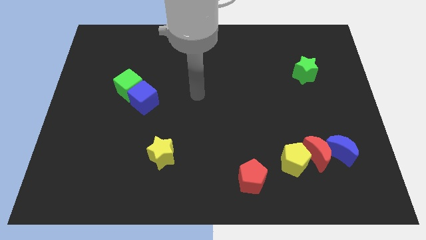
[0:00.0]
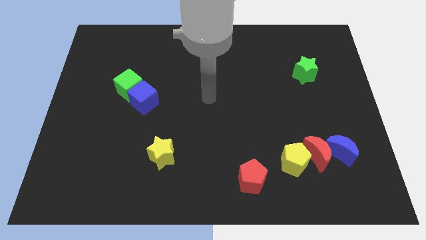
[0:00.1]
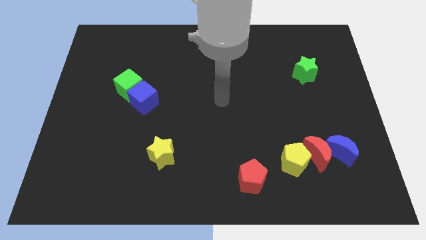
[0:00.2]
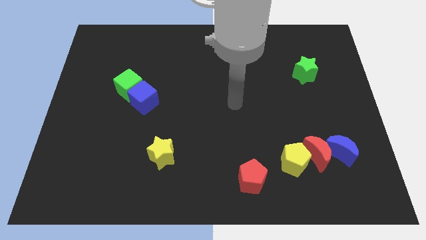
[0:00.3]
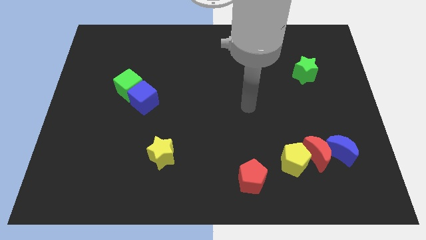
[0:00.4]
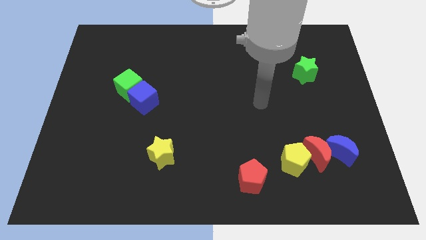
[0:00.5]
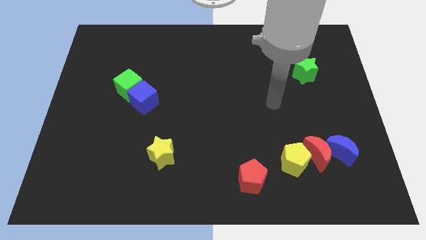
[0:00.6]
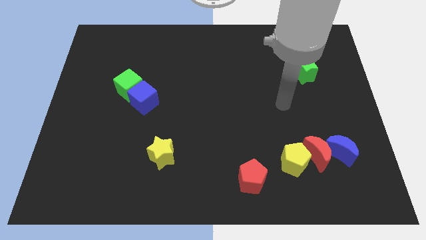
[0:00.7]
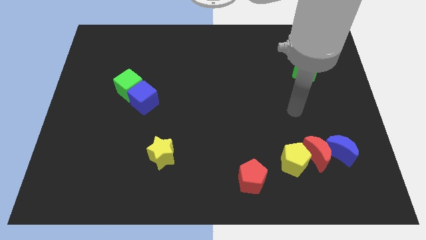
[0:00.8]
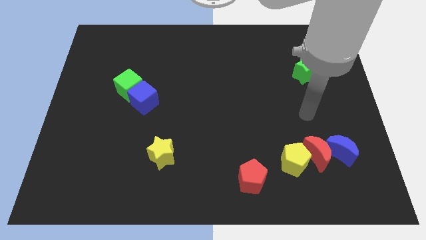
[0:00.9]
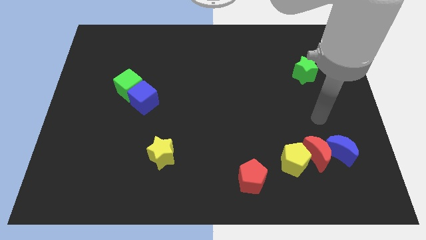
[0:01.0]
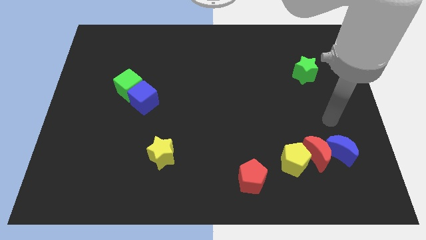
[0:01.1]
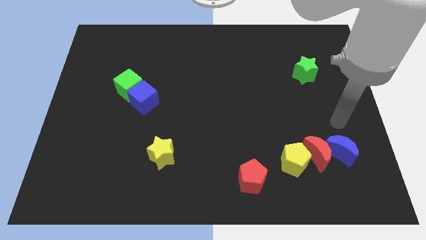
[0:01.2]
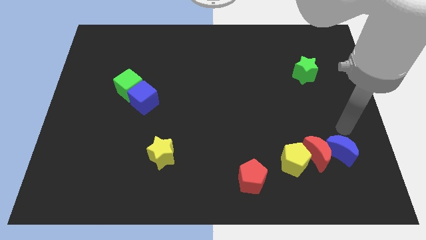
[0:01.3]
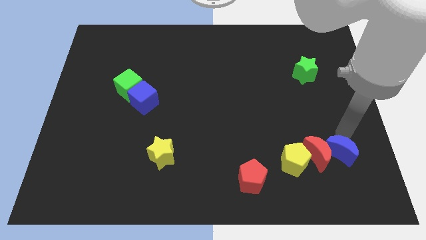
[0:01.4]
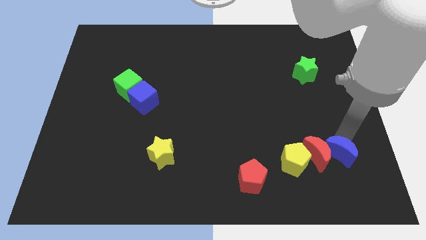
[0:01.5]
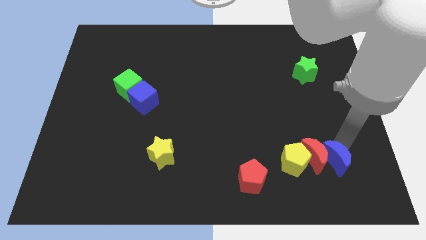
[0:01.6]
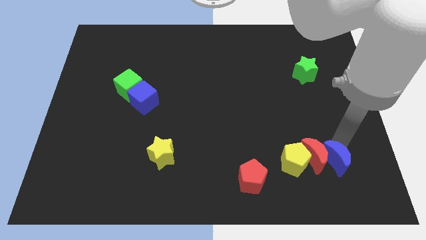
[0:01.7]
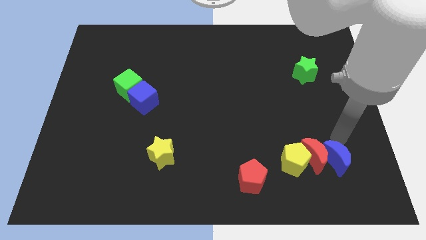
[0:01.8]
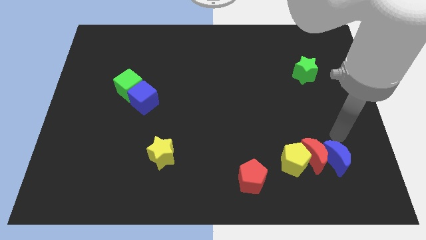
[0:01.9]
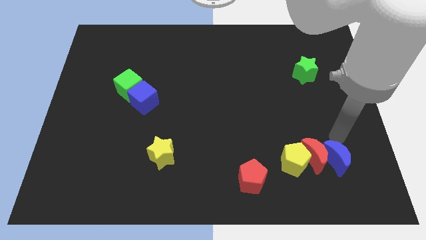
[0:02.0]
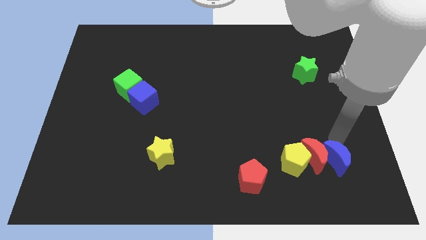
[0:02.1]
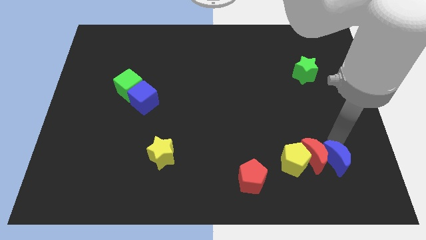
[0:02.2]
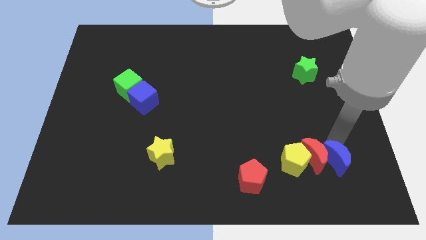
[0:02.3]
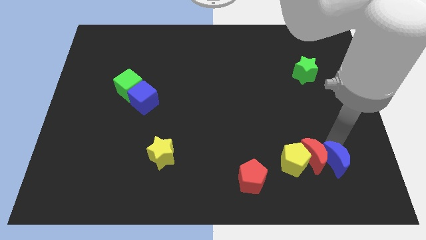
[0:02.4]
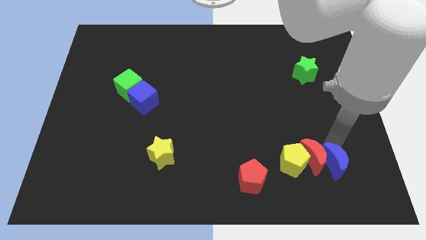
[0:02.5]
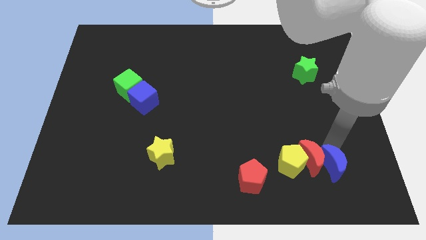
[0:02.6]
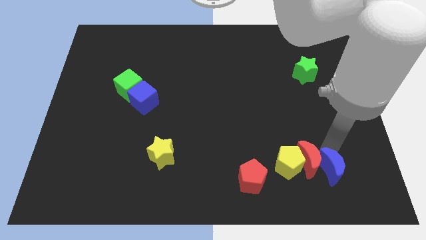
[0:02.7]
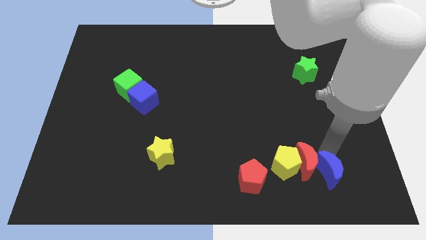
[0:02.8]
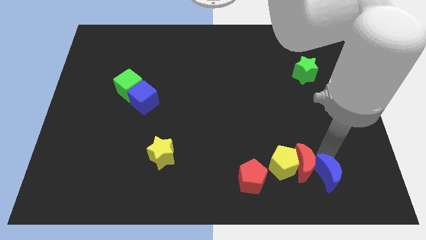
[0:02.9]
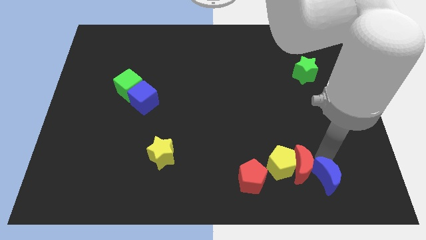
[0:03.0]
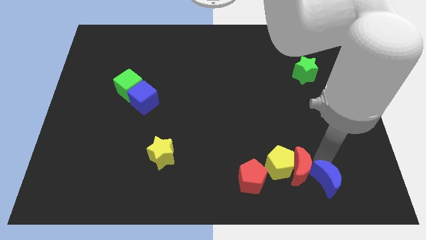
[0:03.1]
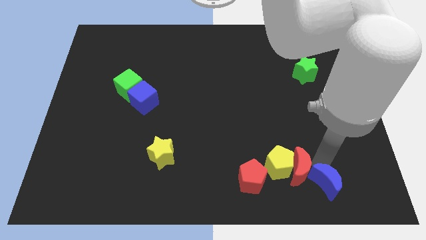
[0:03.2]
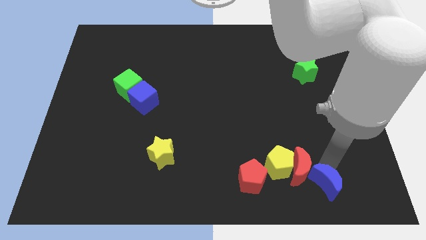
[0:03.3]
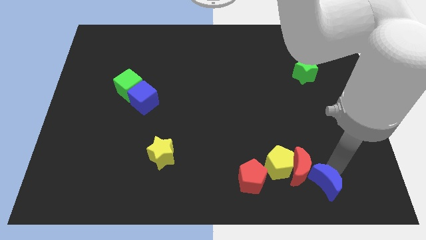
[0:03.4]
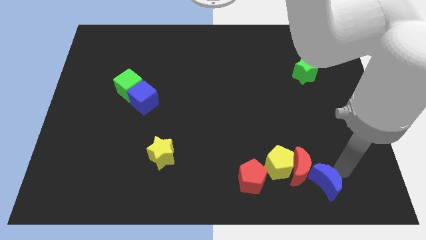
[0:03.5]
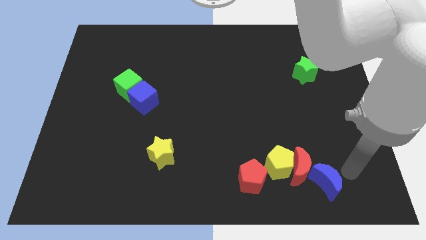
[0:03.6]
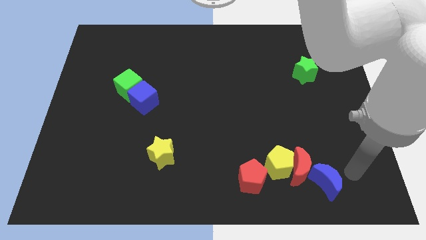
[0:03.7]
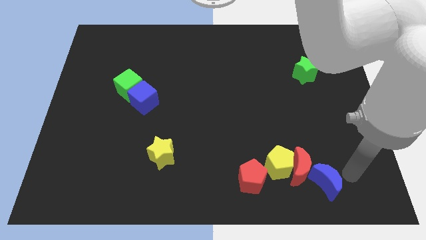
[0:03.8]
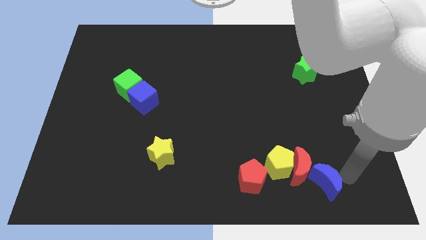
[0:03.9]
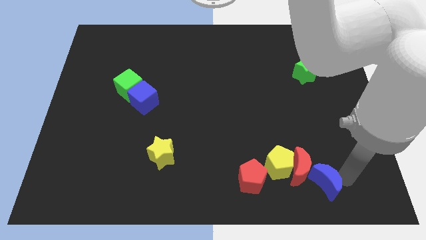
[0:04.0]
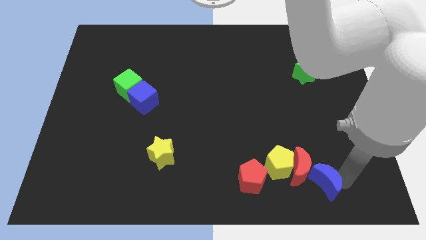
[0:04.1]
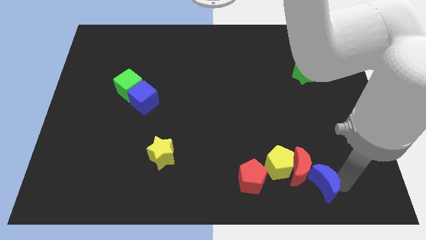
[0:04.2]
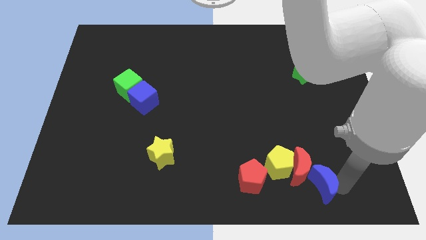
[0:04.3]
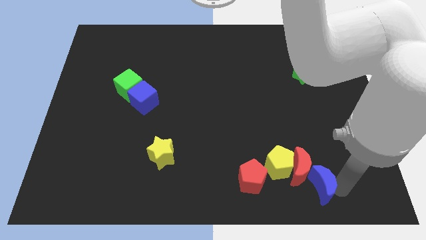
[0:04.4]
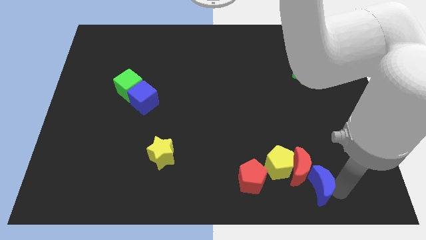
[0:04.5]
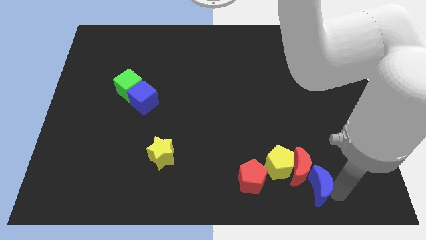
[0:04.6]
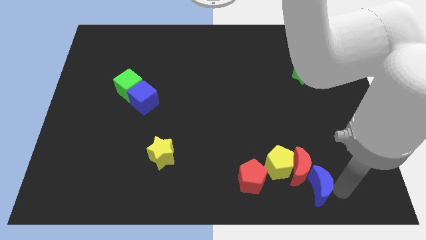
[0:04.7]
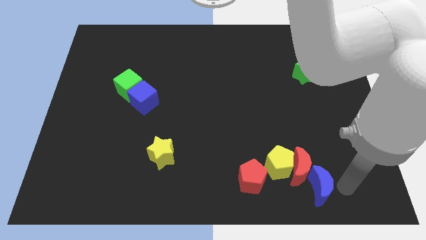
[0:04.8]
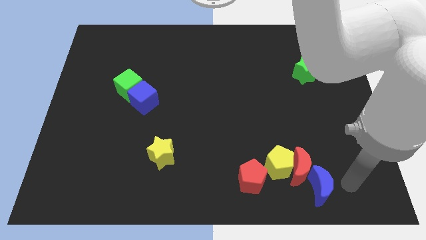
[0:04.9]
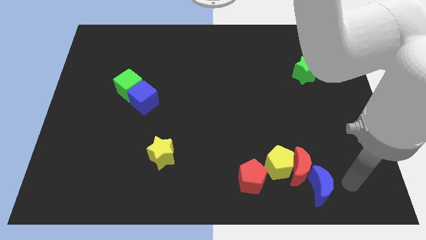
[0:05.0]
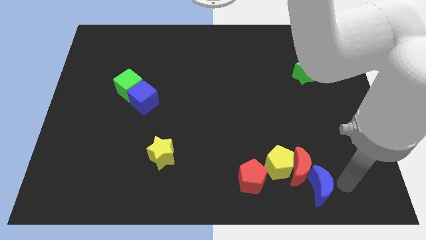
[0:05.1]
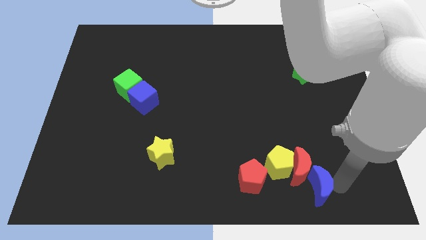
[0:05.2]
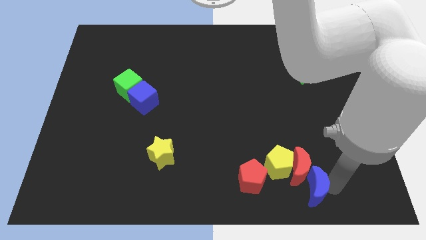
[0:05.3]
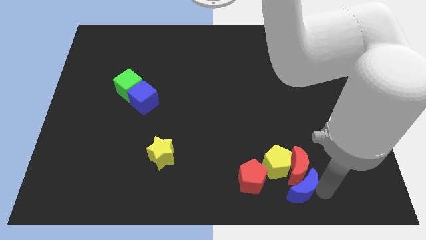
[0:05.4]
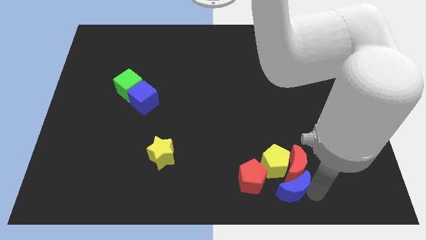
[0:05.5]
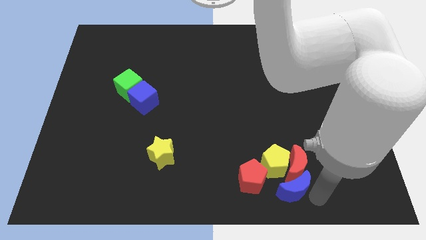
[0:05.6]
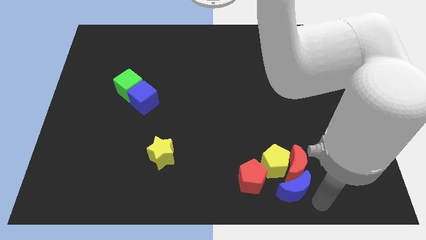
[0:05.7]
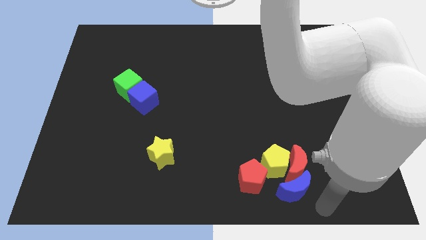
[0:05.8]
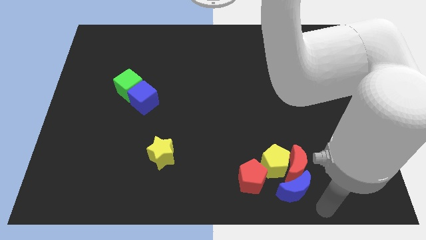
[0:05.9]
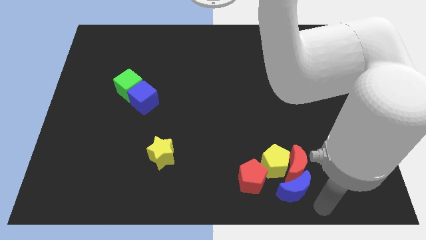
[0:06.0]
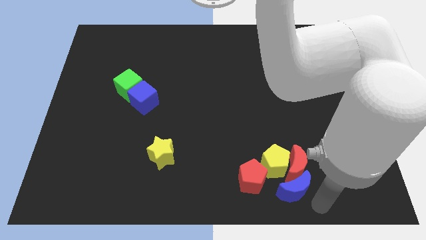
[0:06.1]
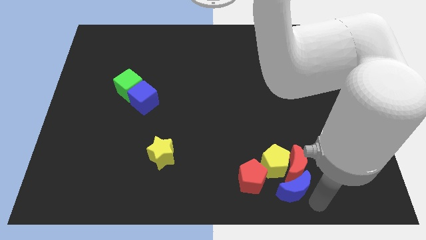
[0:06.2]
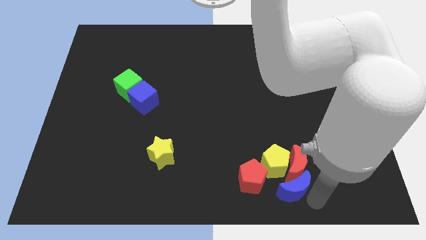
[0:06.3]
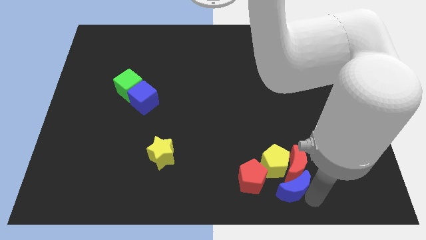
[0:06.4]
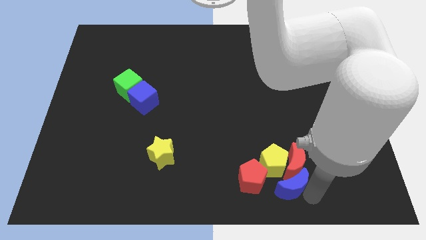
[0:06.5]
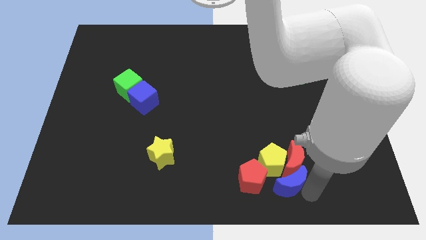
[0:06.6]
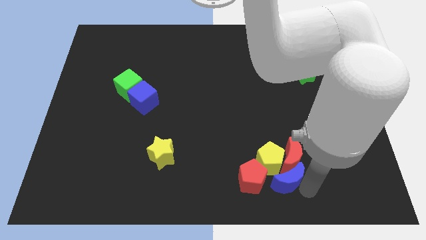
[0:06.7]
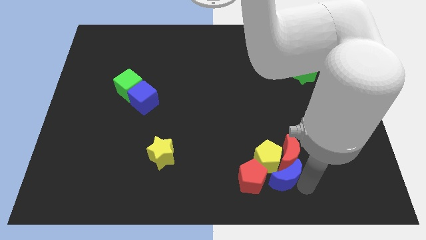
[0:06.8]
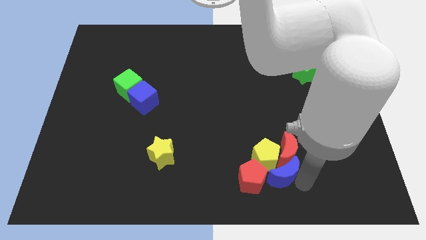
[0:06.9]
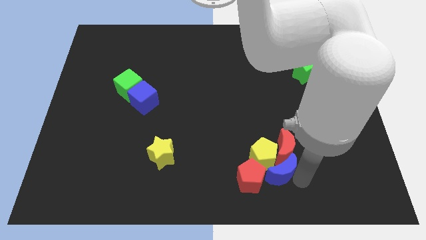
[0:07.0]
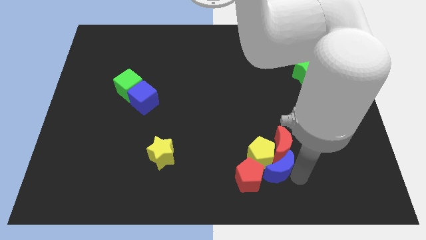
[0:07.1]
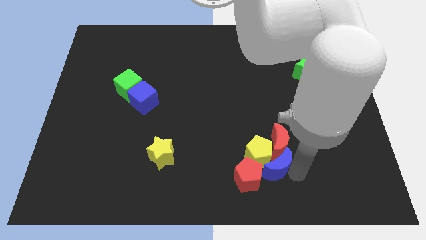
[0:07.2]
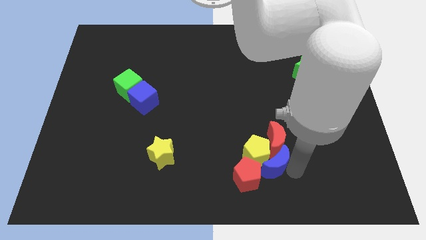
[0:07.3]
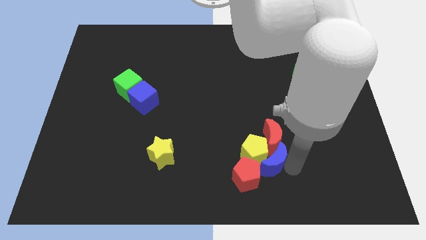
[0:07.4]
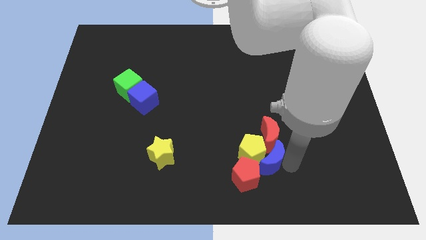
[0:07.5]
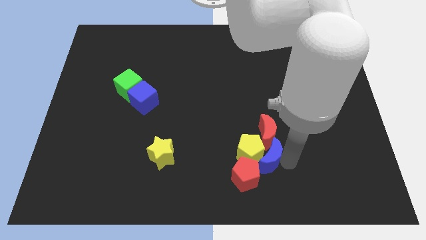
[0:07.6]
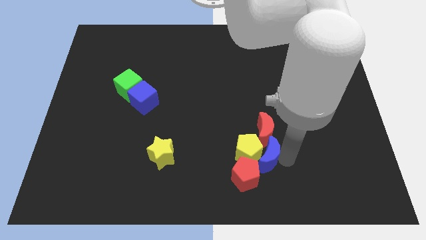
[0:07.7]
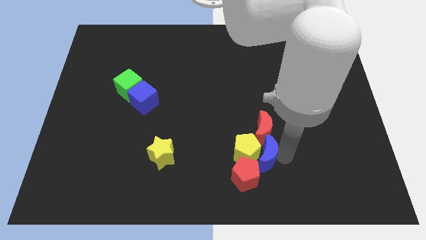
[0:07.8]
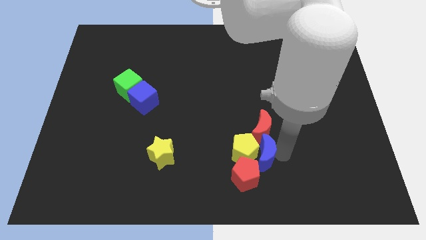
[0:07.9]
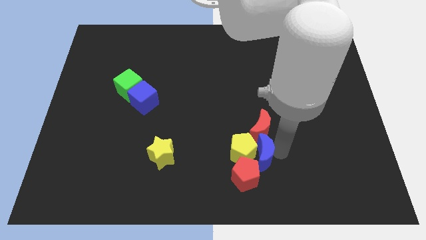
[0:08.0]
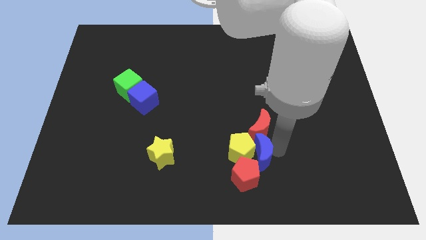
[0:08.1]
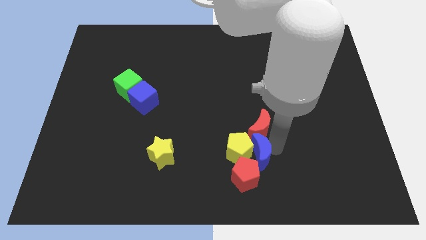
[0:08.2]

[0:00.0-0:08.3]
slide the blue moon close to the red pentagon
